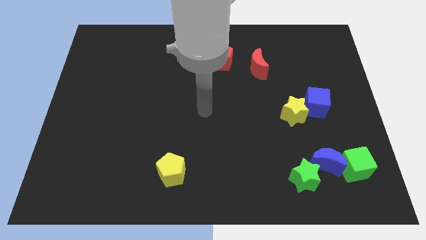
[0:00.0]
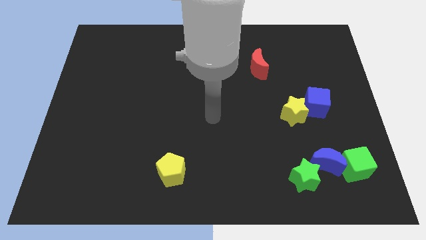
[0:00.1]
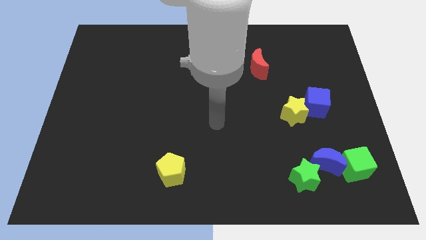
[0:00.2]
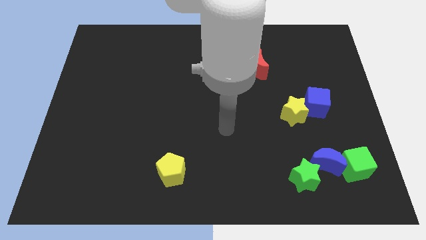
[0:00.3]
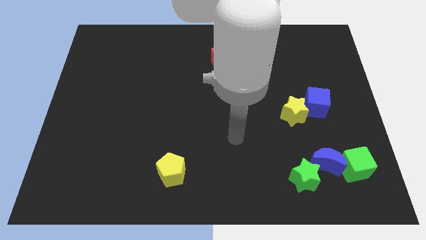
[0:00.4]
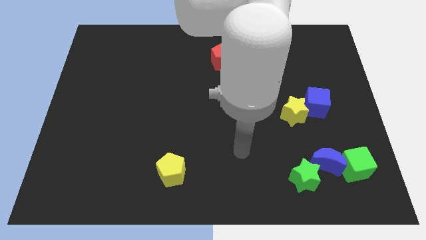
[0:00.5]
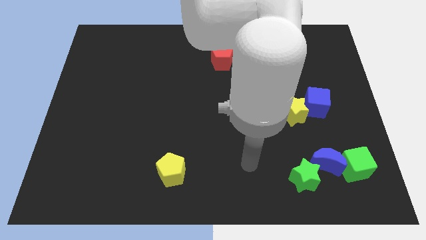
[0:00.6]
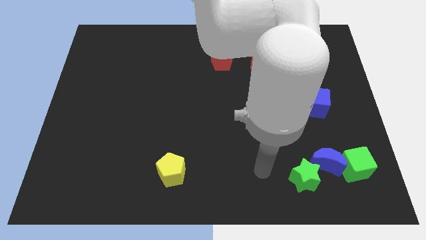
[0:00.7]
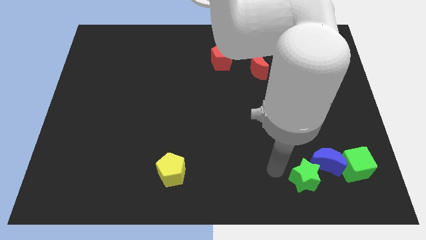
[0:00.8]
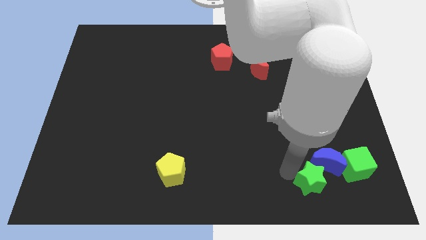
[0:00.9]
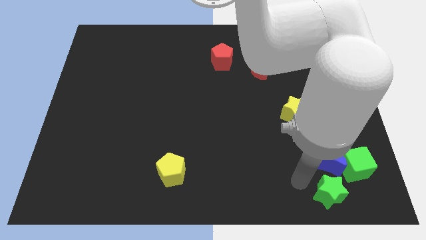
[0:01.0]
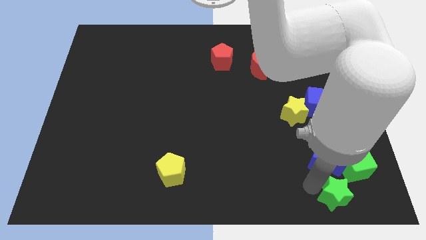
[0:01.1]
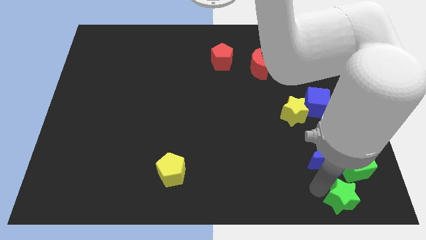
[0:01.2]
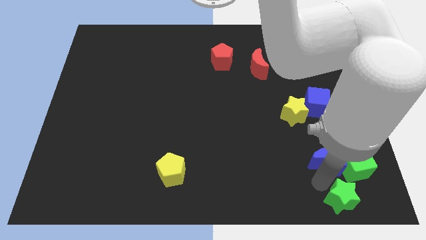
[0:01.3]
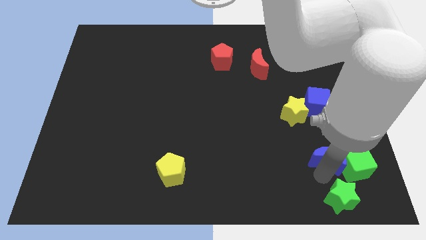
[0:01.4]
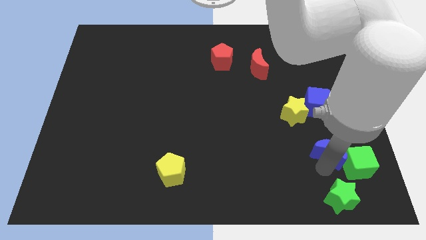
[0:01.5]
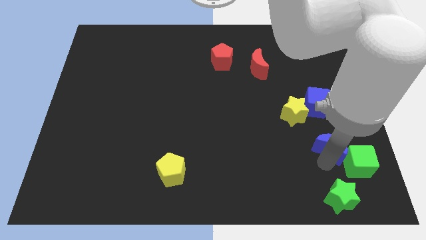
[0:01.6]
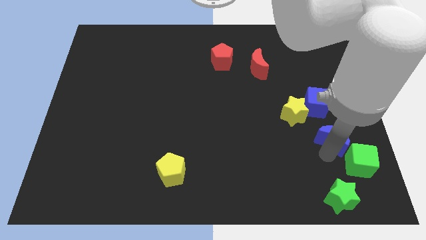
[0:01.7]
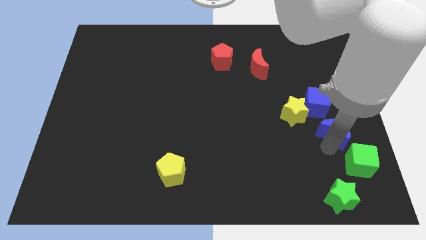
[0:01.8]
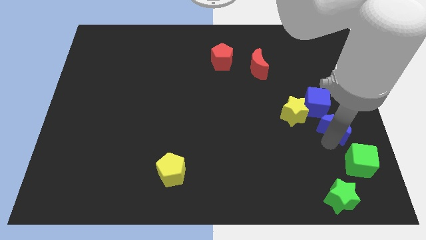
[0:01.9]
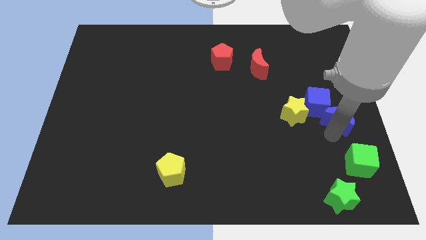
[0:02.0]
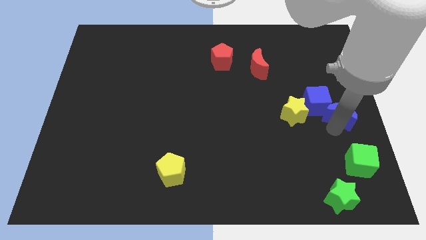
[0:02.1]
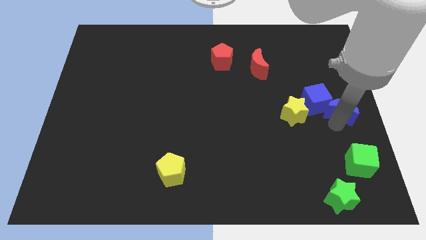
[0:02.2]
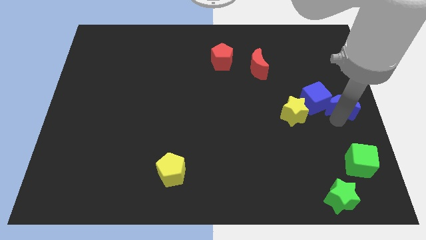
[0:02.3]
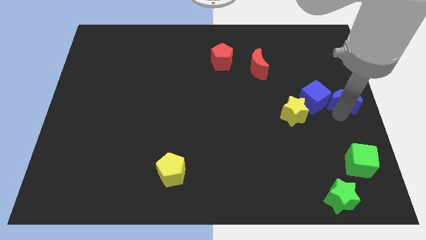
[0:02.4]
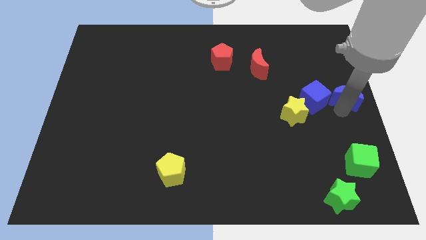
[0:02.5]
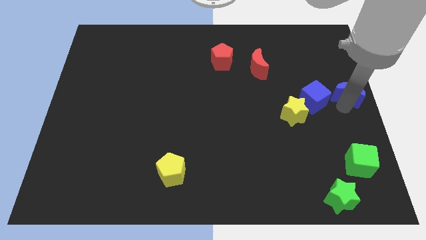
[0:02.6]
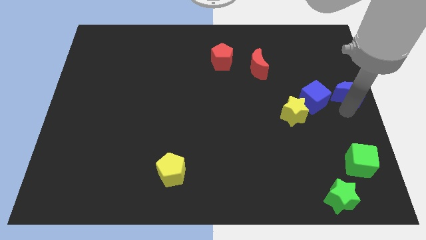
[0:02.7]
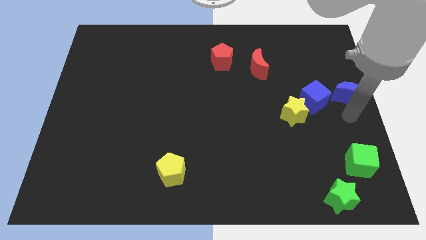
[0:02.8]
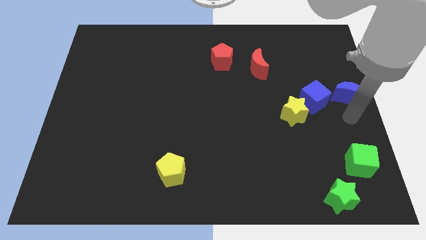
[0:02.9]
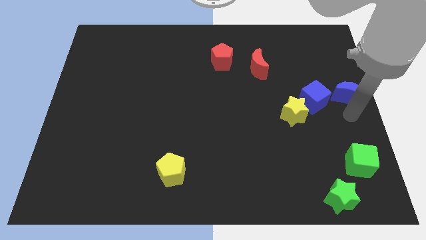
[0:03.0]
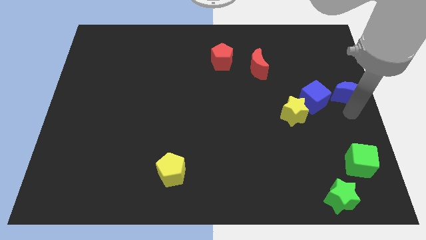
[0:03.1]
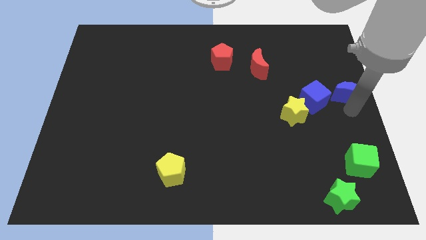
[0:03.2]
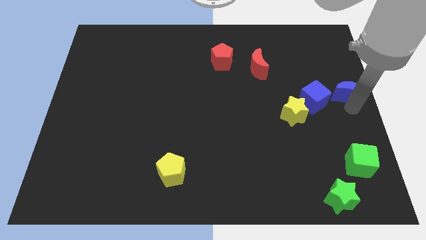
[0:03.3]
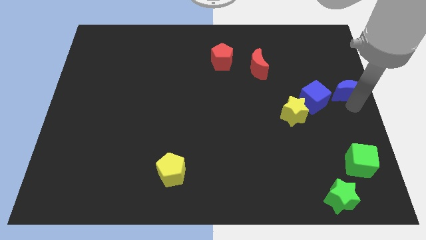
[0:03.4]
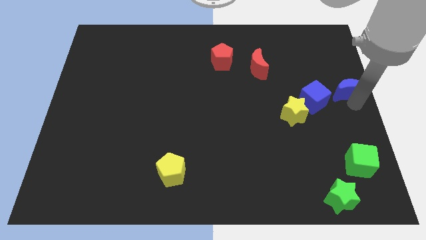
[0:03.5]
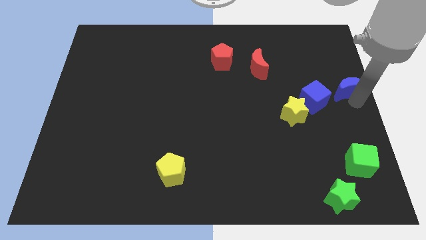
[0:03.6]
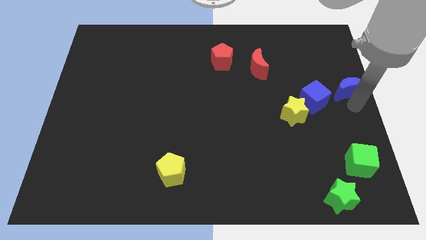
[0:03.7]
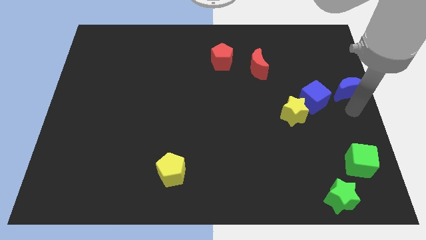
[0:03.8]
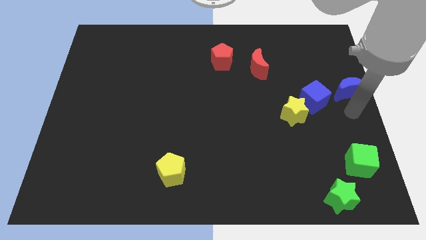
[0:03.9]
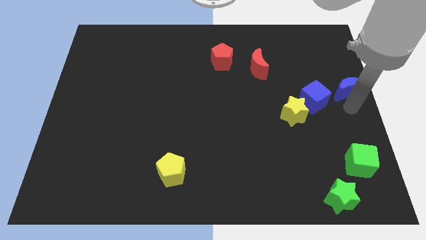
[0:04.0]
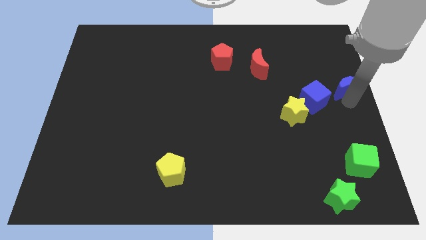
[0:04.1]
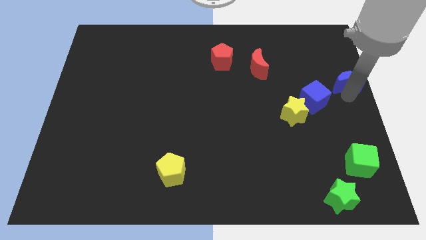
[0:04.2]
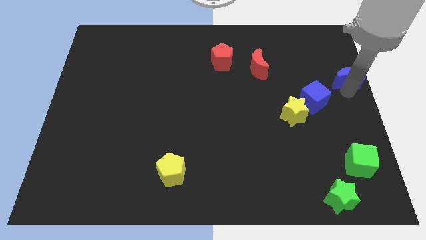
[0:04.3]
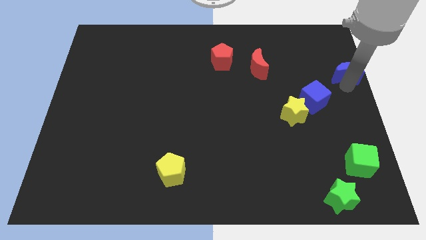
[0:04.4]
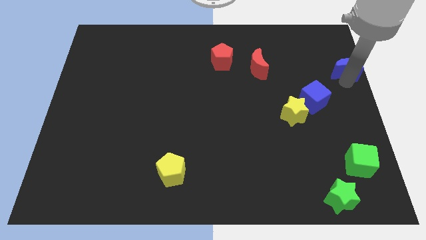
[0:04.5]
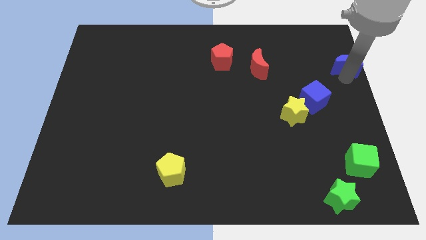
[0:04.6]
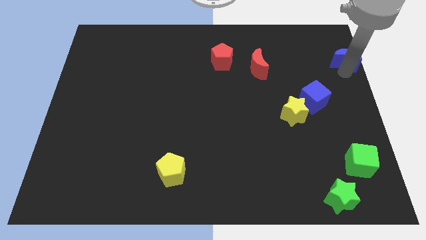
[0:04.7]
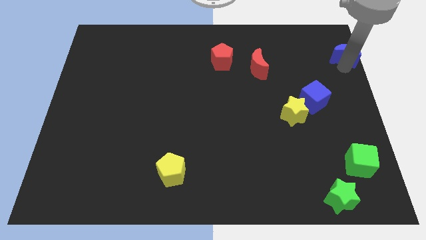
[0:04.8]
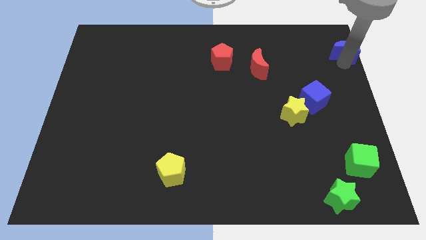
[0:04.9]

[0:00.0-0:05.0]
slide the blue moon to the top right

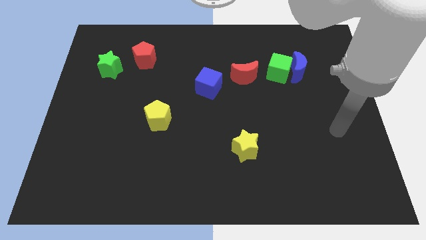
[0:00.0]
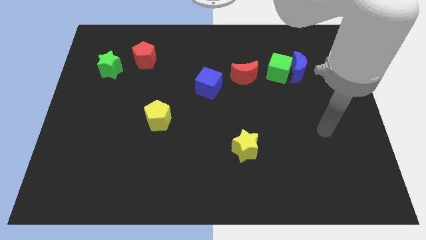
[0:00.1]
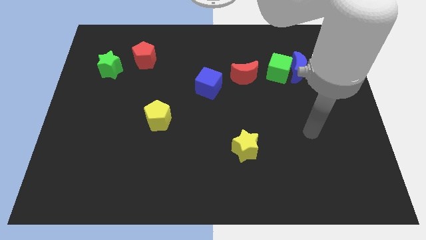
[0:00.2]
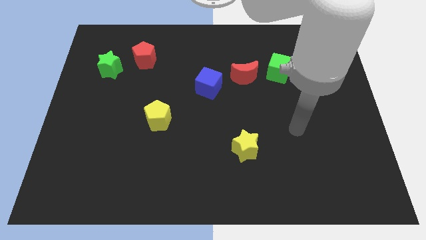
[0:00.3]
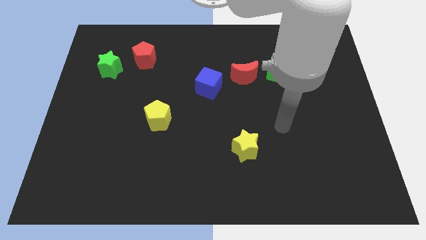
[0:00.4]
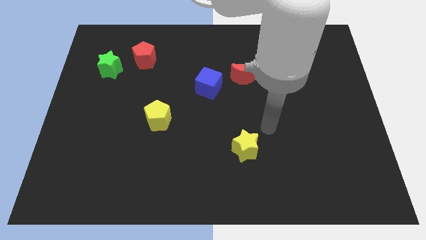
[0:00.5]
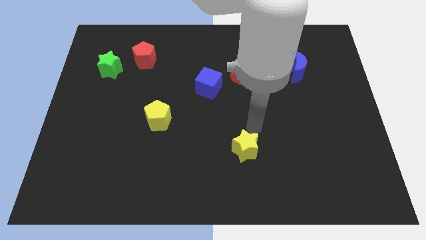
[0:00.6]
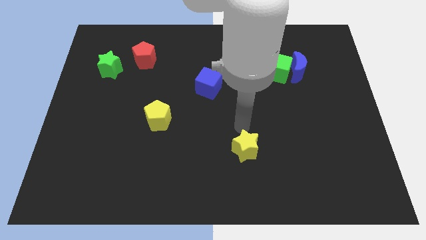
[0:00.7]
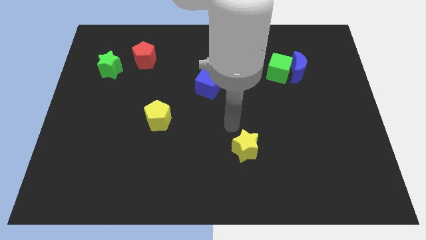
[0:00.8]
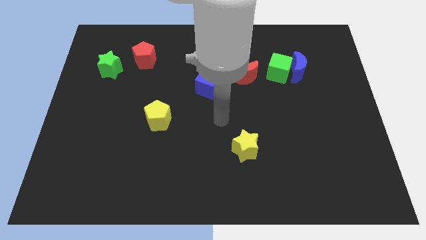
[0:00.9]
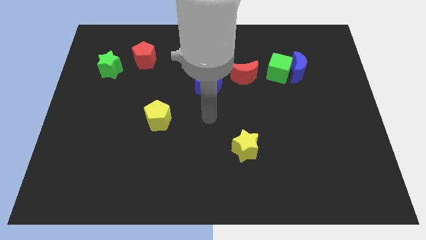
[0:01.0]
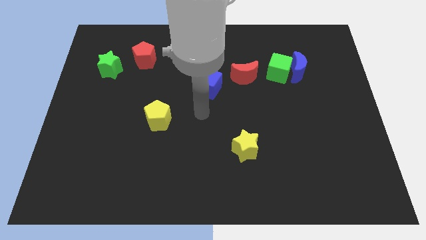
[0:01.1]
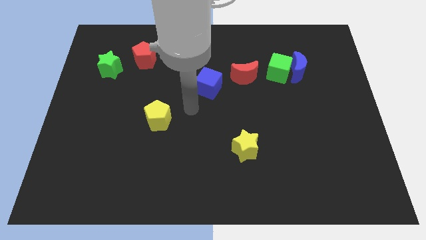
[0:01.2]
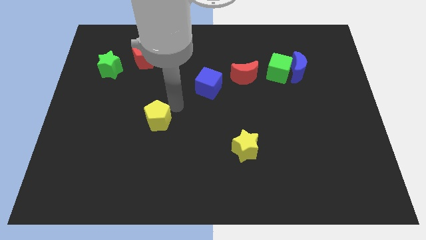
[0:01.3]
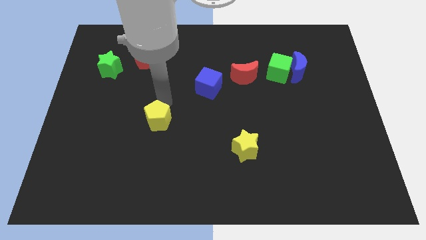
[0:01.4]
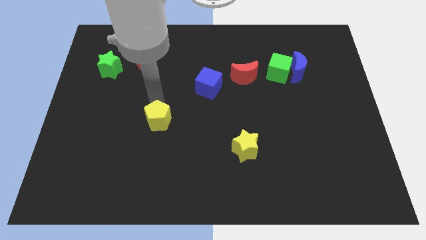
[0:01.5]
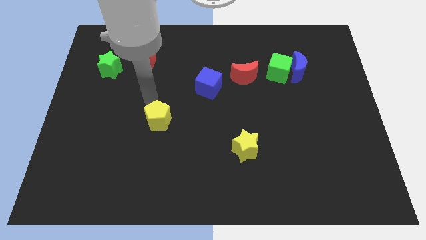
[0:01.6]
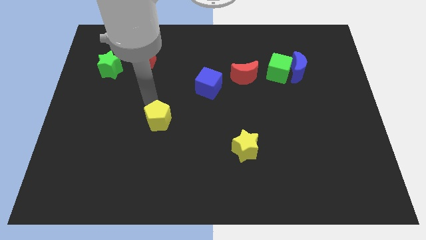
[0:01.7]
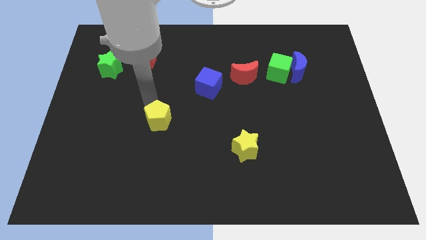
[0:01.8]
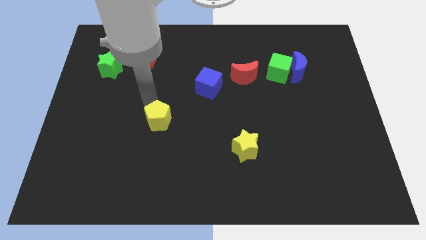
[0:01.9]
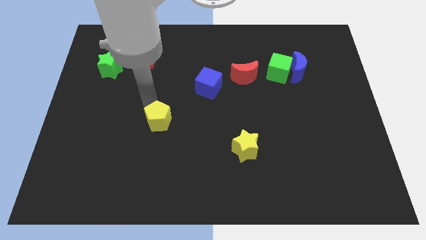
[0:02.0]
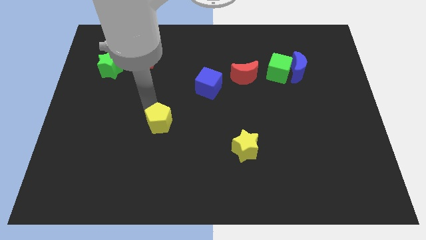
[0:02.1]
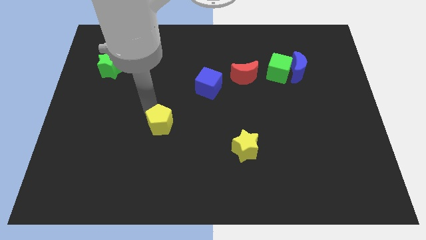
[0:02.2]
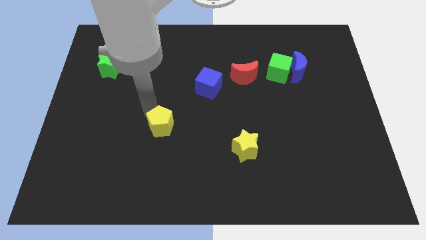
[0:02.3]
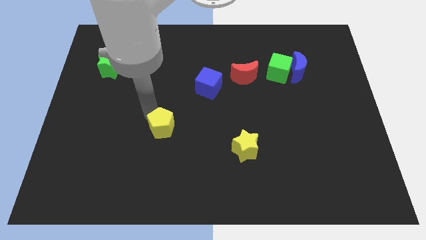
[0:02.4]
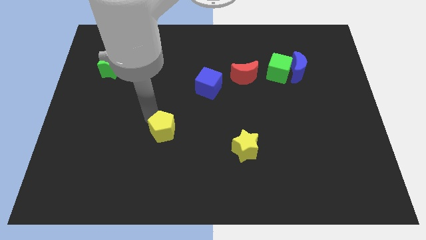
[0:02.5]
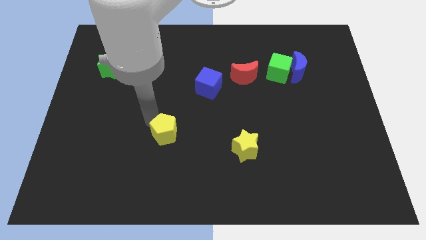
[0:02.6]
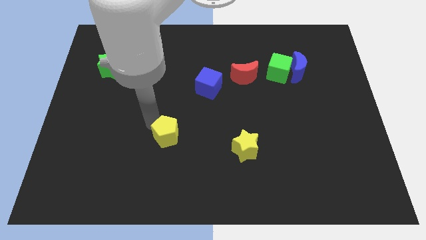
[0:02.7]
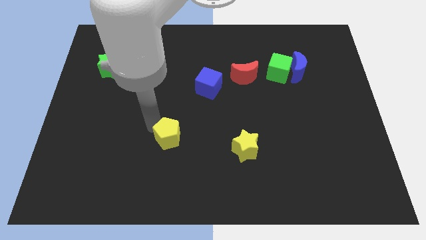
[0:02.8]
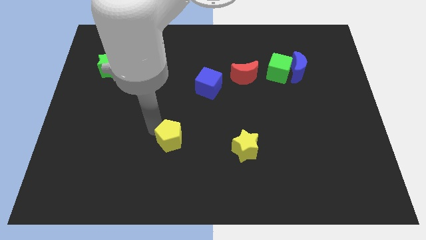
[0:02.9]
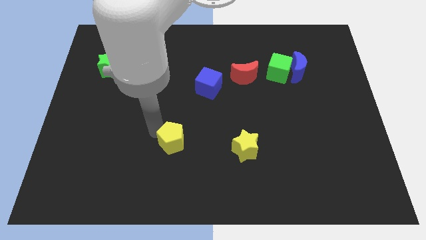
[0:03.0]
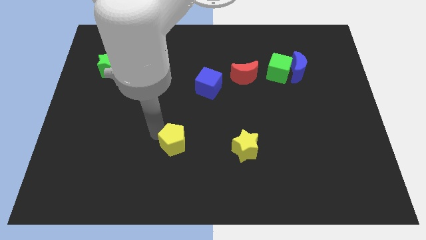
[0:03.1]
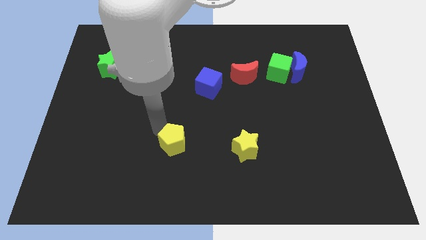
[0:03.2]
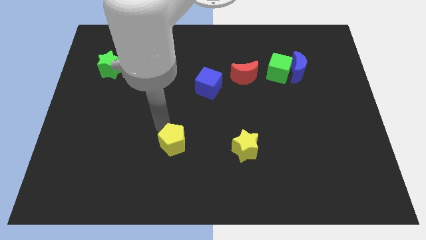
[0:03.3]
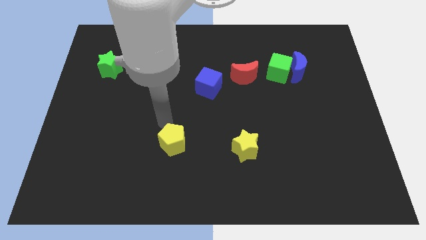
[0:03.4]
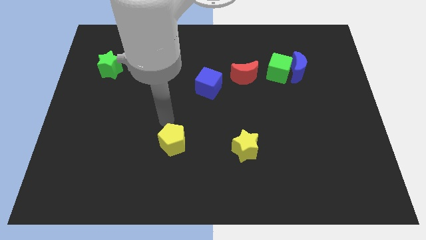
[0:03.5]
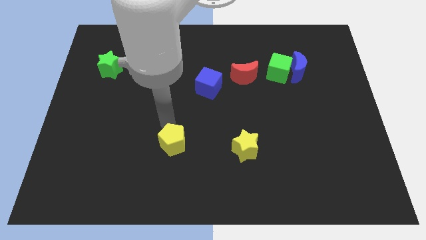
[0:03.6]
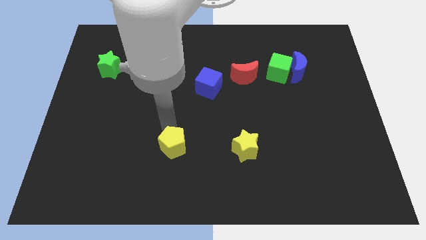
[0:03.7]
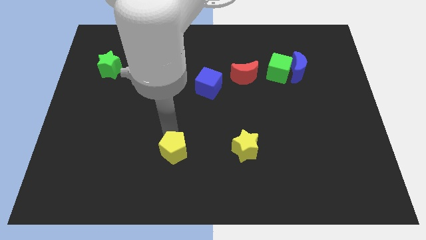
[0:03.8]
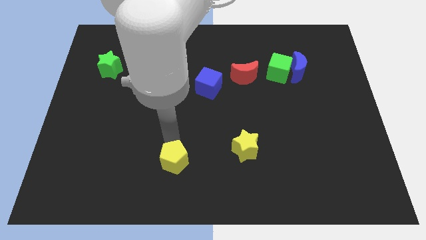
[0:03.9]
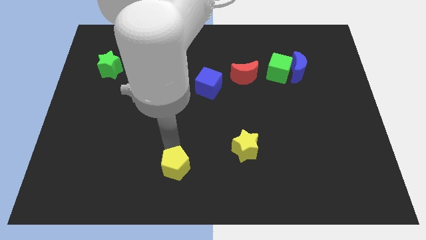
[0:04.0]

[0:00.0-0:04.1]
slide the yellow pentagon to the bottom
